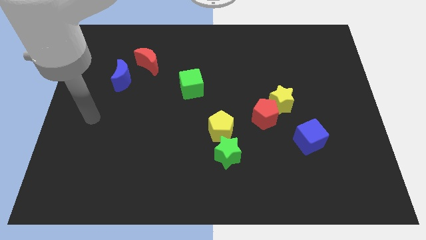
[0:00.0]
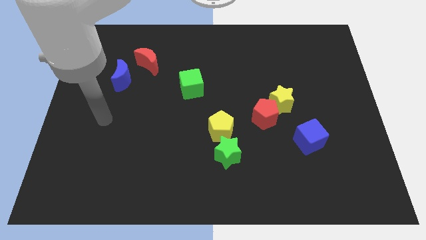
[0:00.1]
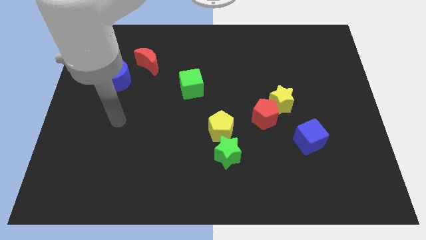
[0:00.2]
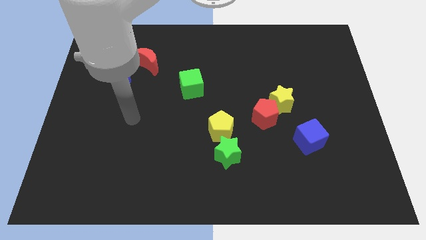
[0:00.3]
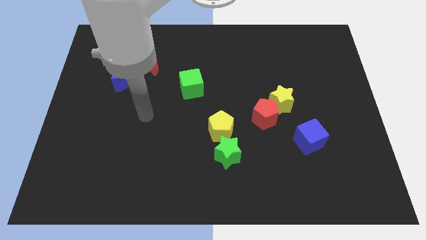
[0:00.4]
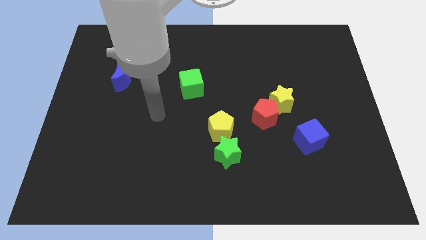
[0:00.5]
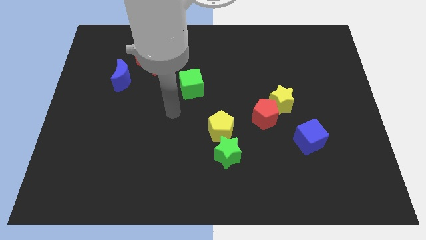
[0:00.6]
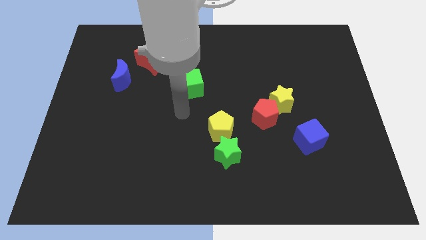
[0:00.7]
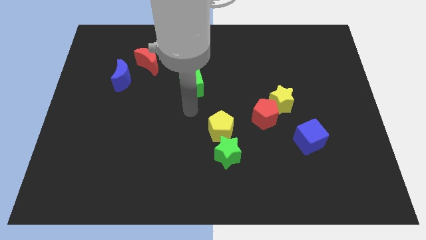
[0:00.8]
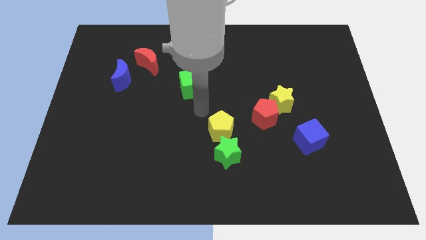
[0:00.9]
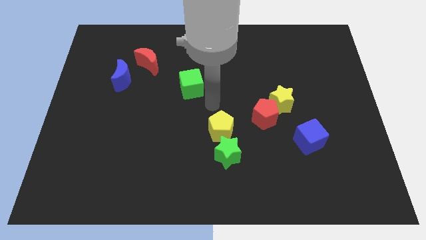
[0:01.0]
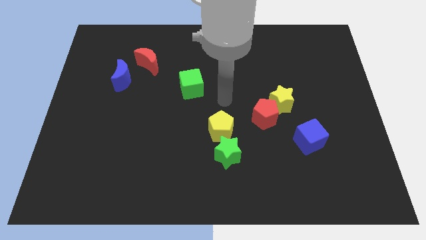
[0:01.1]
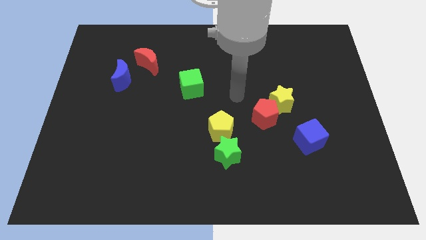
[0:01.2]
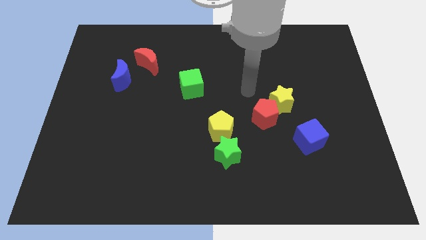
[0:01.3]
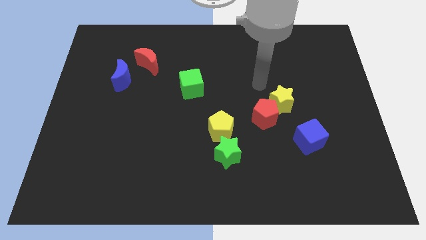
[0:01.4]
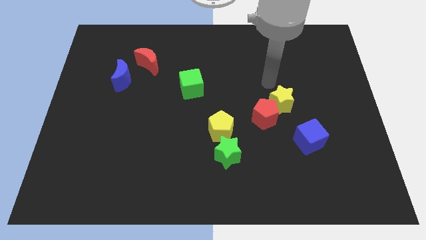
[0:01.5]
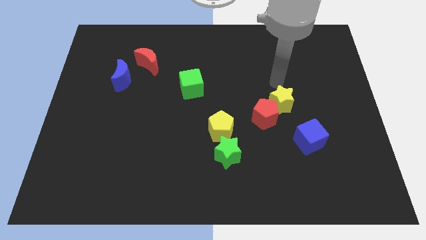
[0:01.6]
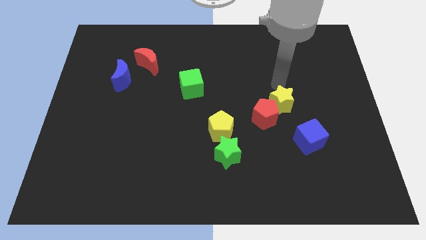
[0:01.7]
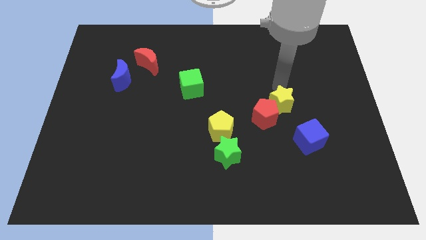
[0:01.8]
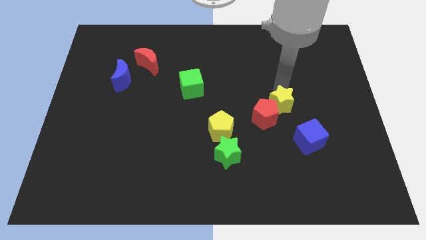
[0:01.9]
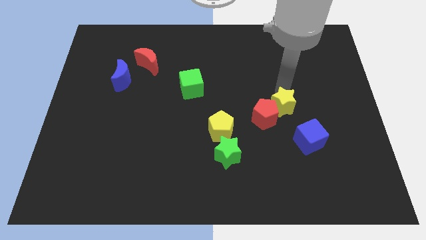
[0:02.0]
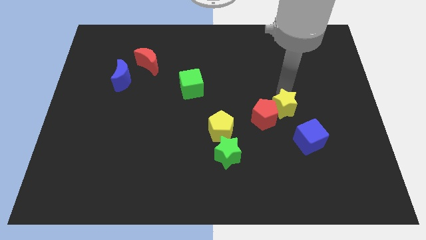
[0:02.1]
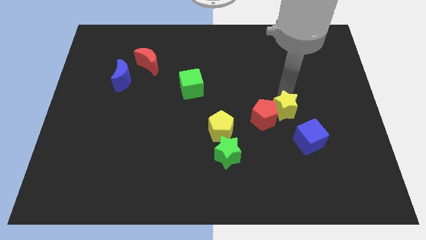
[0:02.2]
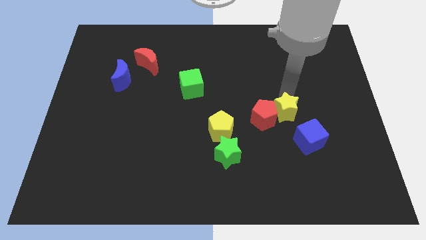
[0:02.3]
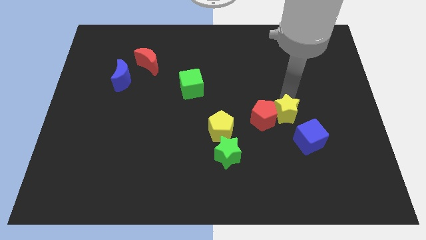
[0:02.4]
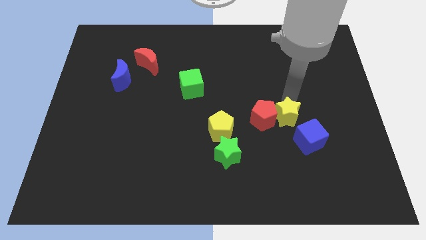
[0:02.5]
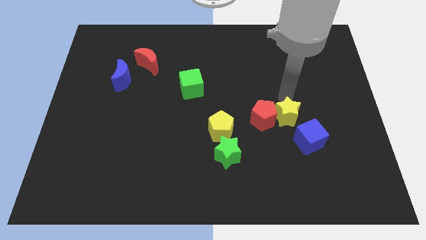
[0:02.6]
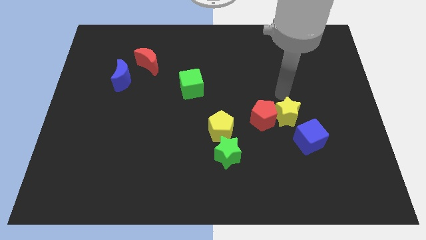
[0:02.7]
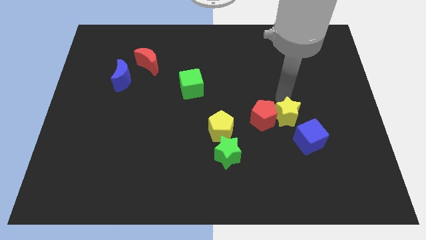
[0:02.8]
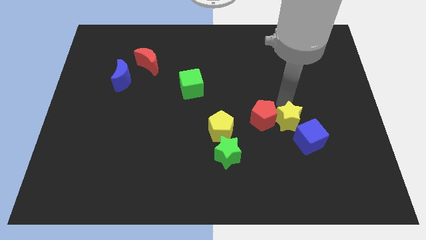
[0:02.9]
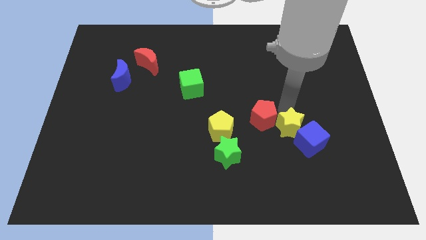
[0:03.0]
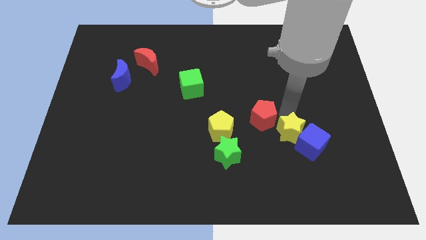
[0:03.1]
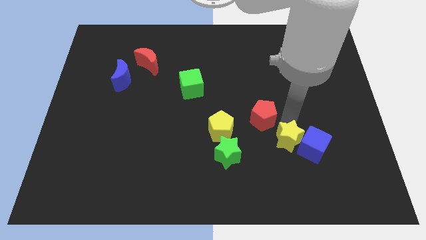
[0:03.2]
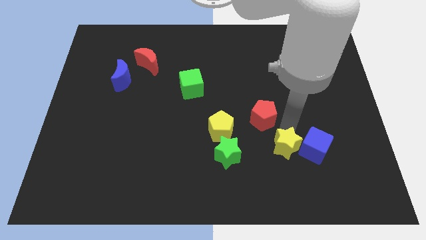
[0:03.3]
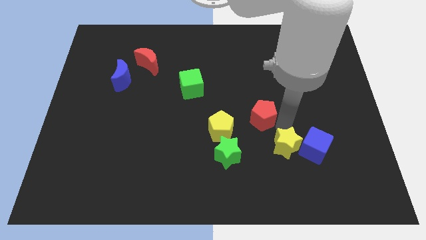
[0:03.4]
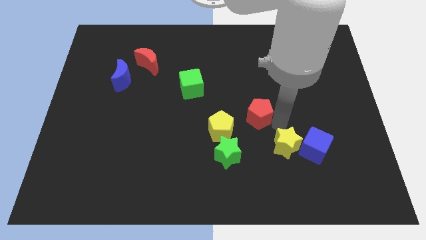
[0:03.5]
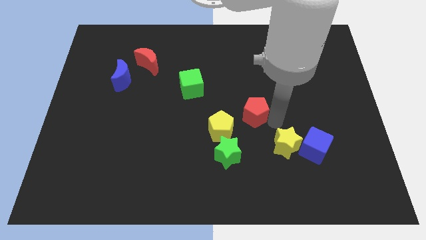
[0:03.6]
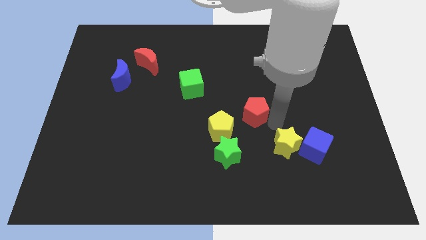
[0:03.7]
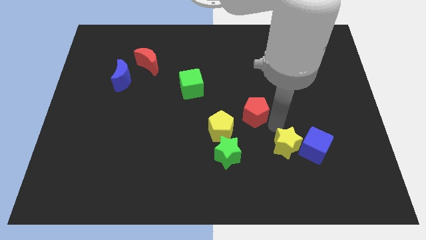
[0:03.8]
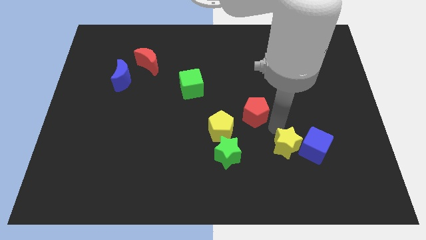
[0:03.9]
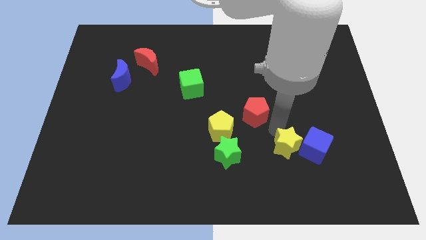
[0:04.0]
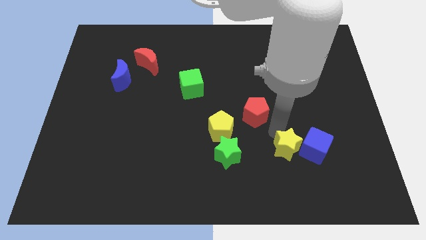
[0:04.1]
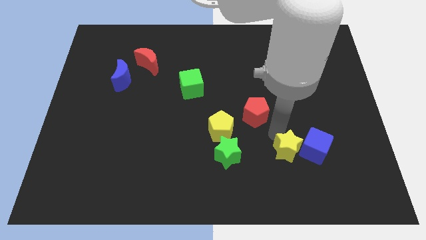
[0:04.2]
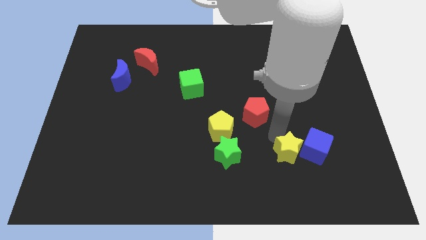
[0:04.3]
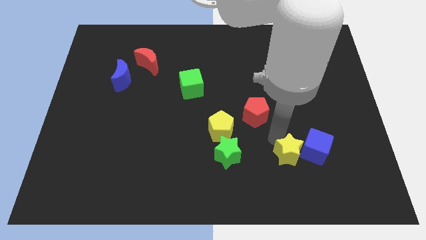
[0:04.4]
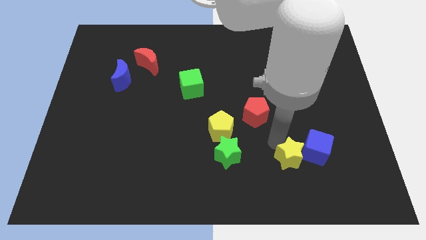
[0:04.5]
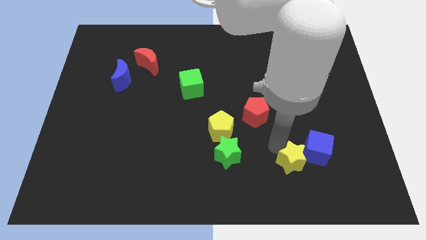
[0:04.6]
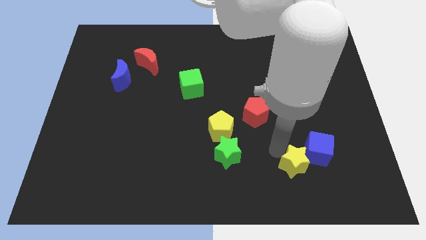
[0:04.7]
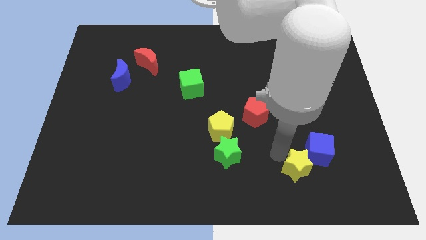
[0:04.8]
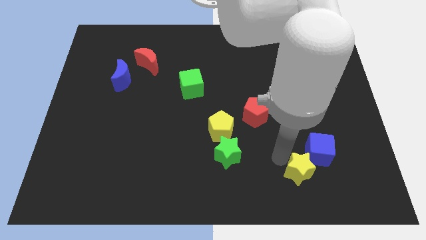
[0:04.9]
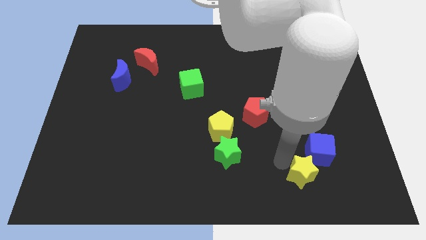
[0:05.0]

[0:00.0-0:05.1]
push the yellow star to the bottom of the blue cube

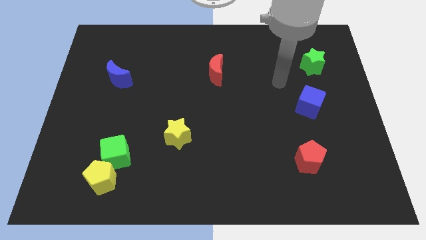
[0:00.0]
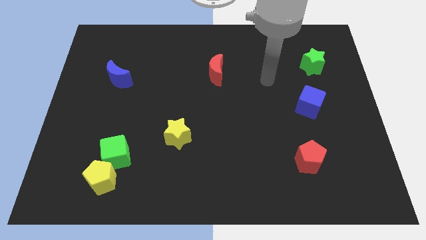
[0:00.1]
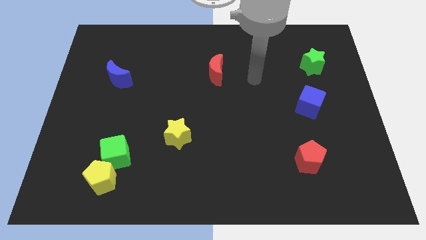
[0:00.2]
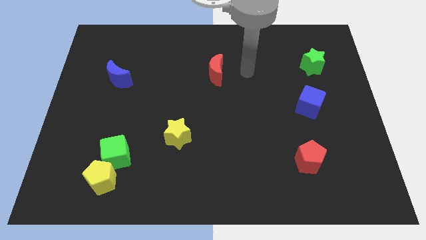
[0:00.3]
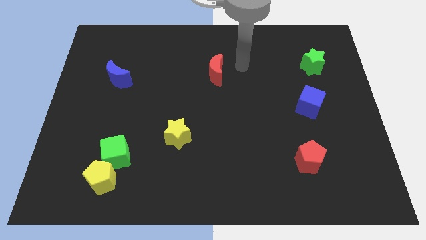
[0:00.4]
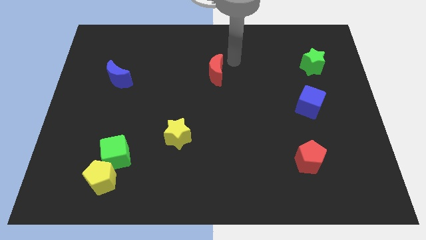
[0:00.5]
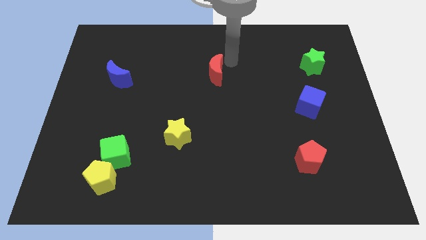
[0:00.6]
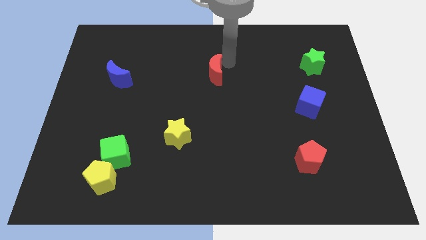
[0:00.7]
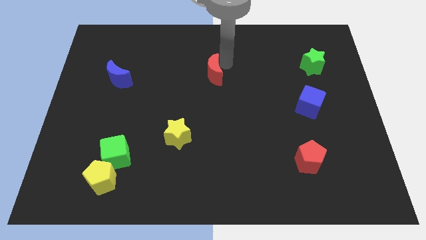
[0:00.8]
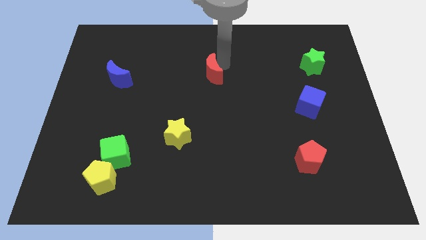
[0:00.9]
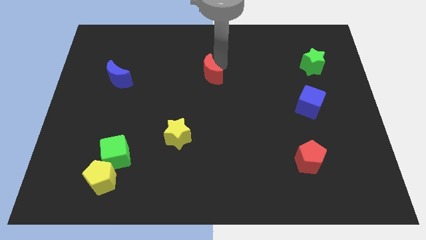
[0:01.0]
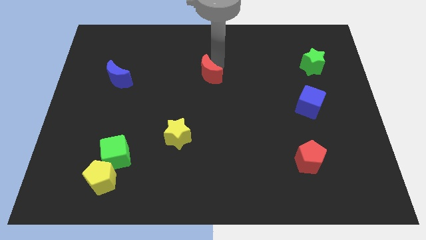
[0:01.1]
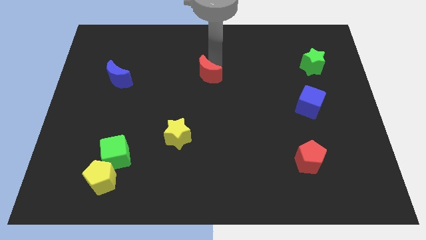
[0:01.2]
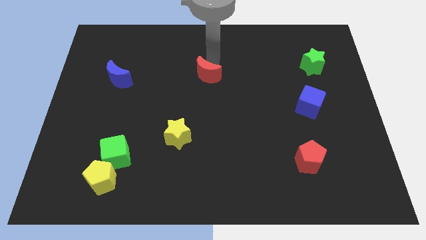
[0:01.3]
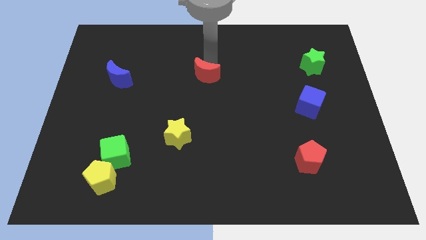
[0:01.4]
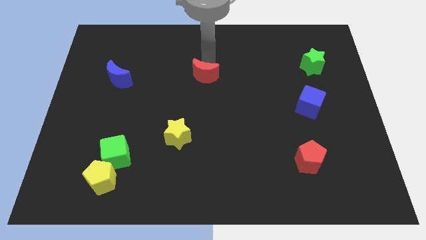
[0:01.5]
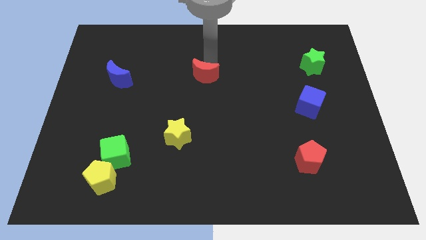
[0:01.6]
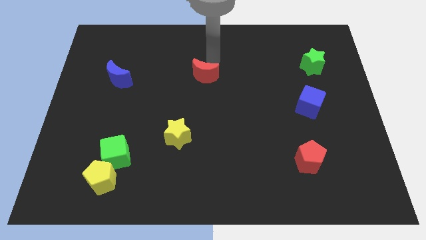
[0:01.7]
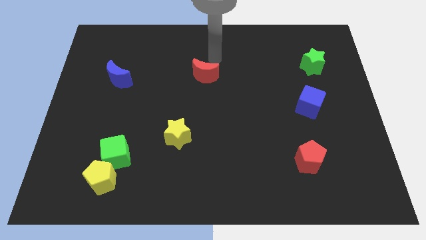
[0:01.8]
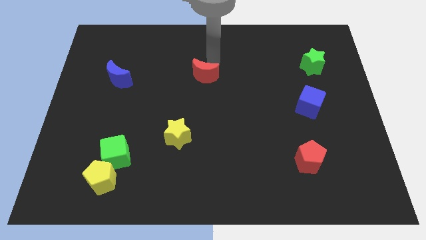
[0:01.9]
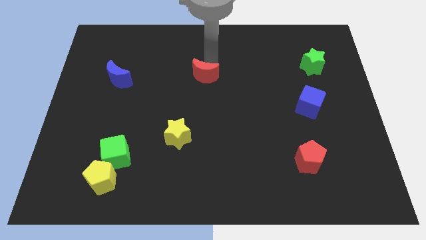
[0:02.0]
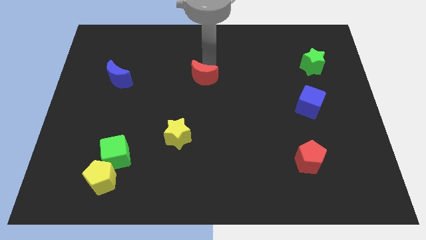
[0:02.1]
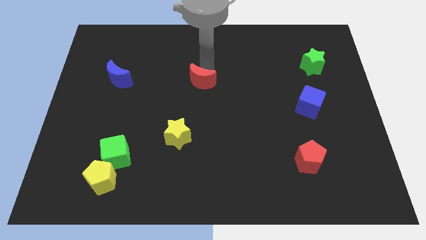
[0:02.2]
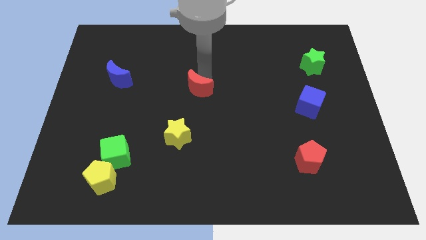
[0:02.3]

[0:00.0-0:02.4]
slide the red moon to the top side of the yellow star
